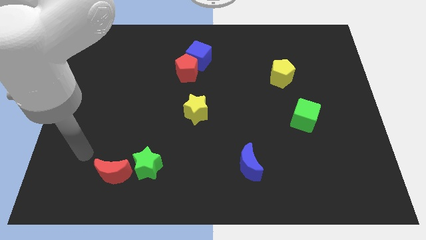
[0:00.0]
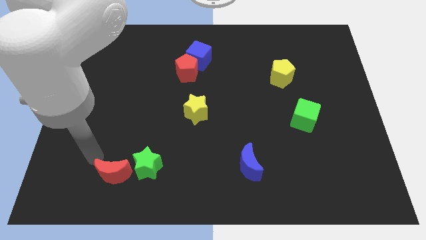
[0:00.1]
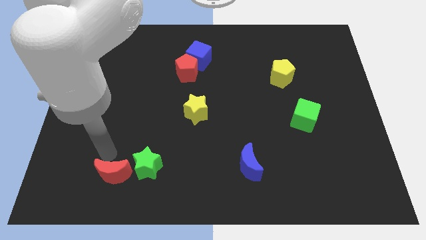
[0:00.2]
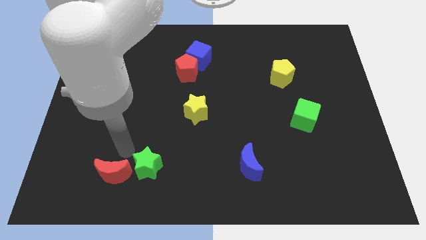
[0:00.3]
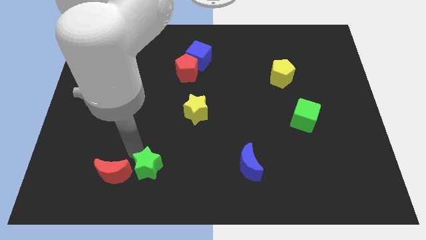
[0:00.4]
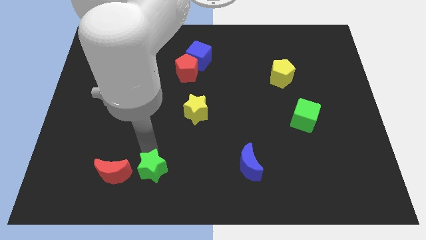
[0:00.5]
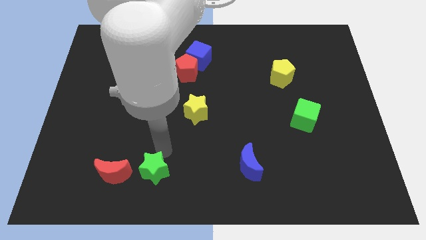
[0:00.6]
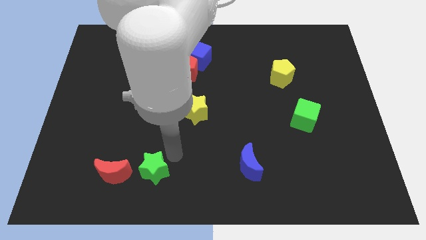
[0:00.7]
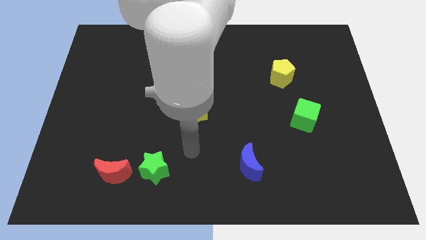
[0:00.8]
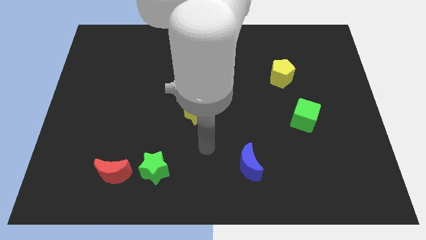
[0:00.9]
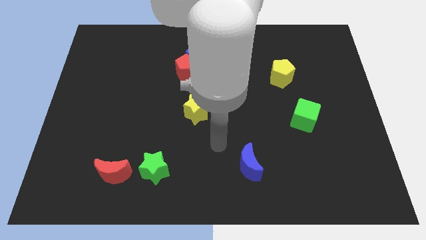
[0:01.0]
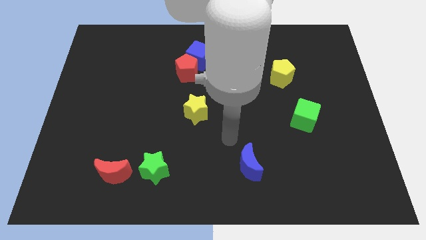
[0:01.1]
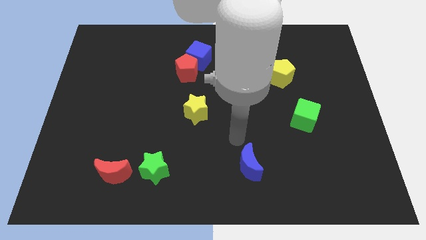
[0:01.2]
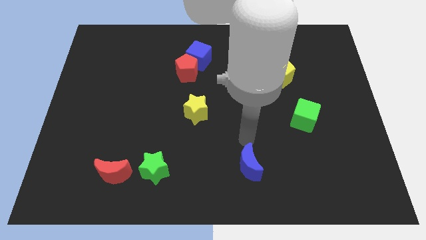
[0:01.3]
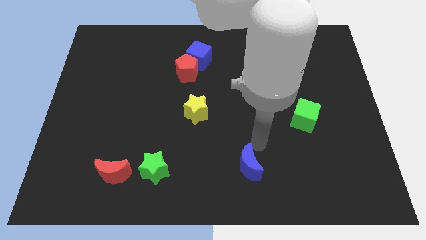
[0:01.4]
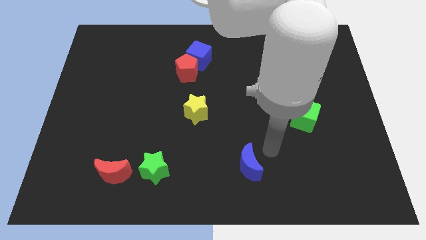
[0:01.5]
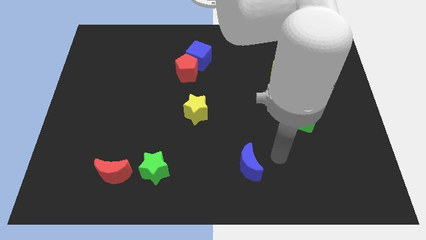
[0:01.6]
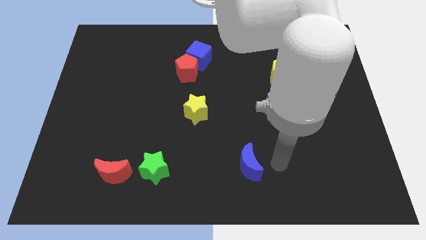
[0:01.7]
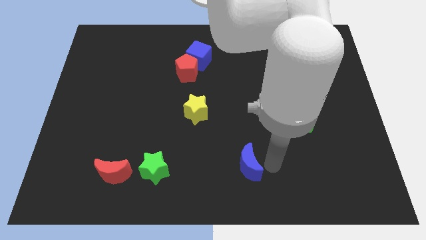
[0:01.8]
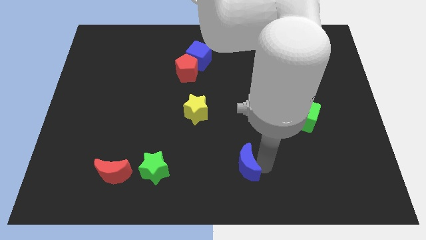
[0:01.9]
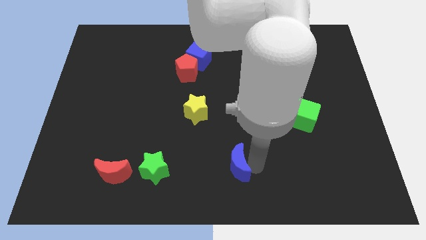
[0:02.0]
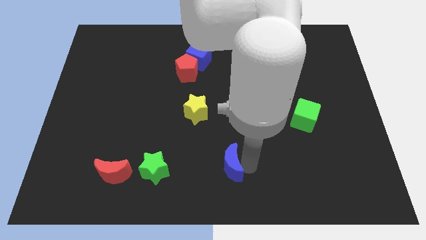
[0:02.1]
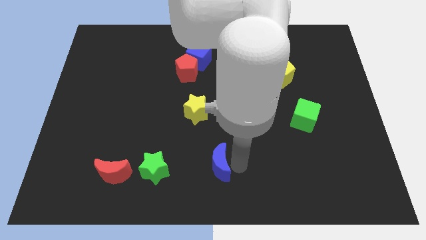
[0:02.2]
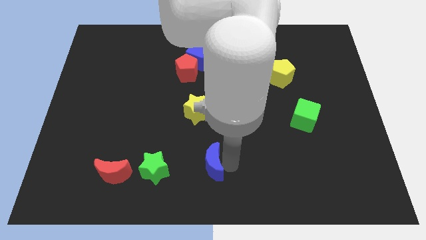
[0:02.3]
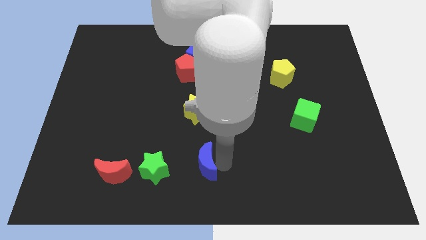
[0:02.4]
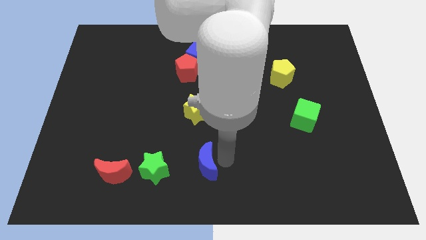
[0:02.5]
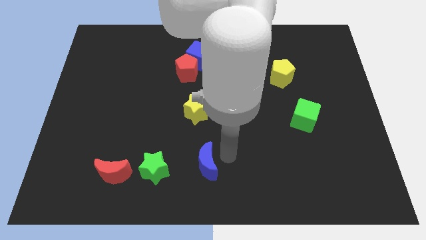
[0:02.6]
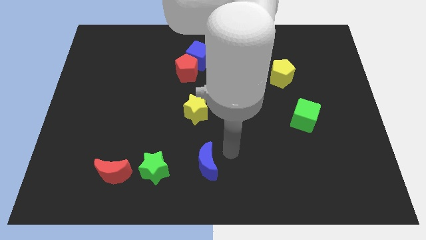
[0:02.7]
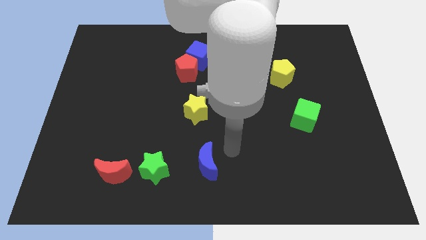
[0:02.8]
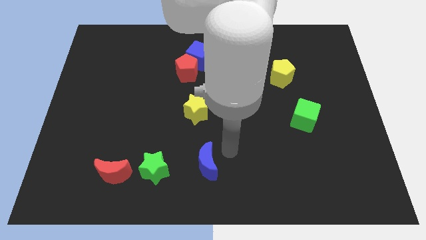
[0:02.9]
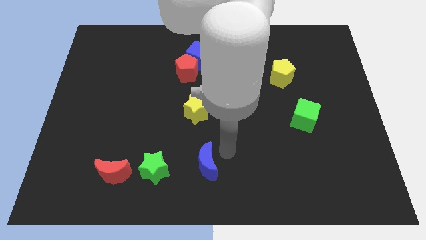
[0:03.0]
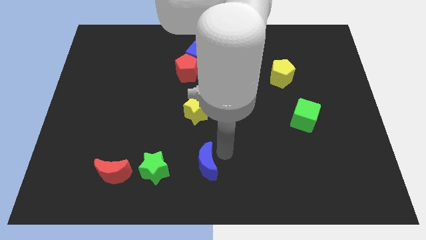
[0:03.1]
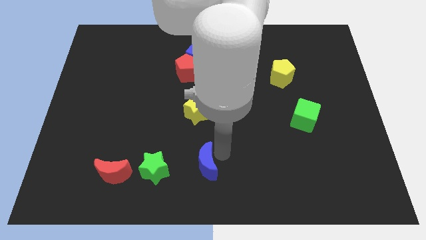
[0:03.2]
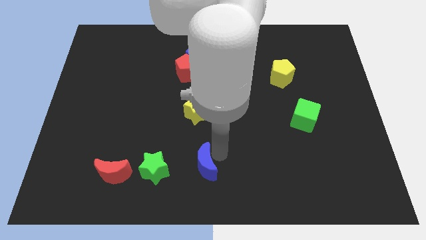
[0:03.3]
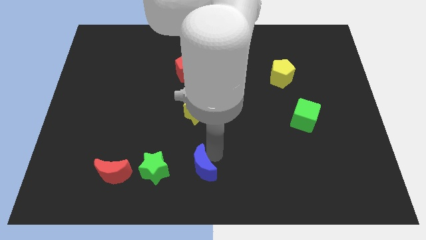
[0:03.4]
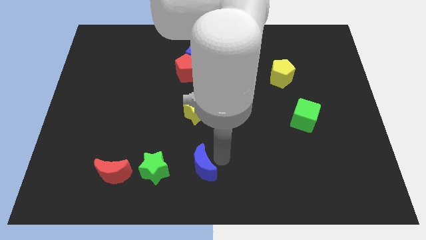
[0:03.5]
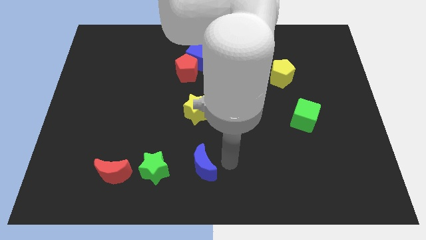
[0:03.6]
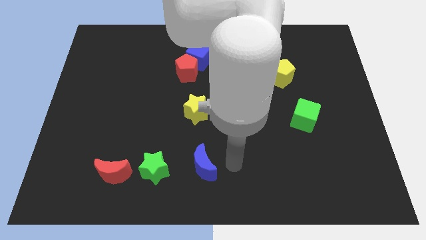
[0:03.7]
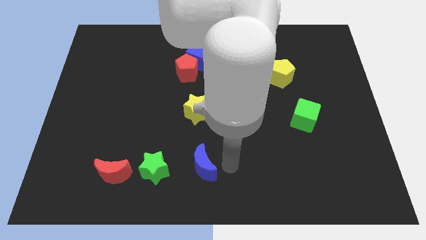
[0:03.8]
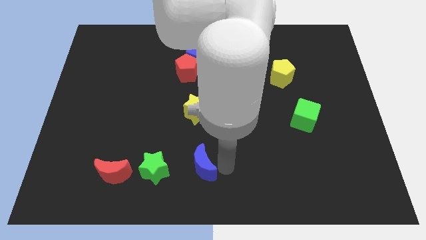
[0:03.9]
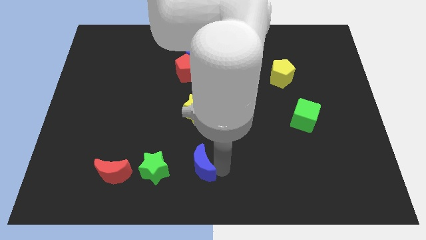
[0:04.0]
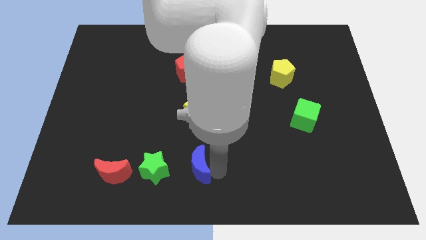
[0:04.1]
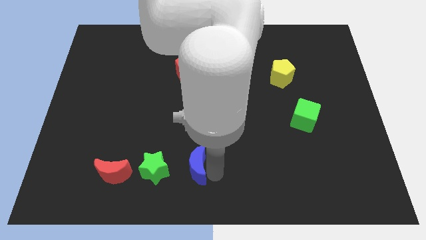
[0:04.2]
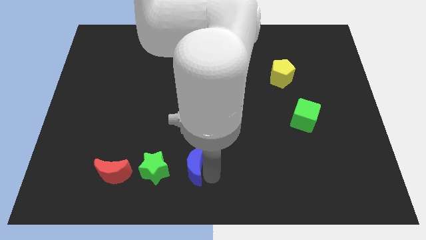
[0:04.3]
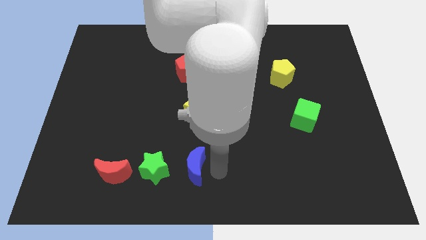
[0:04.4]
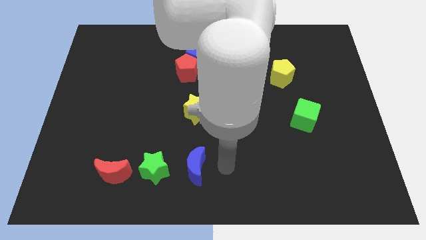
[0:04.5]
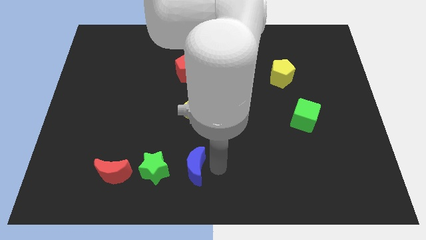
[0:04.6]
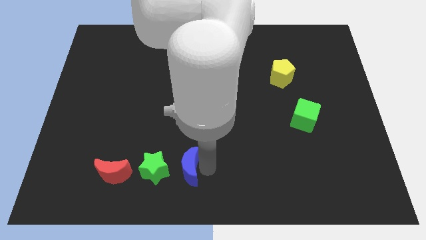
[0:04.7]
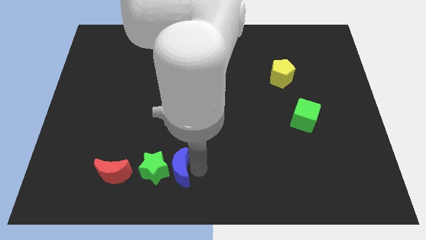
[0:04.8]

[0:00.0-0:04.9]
put the blue moon close to the green star

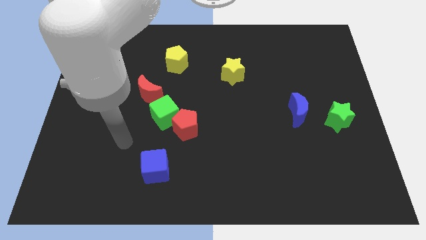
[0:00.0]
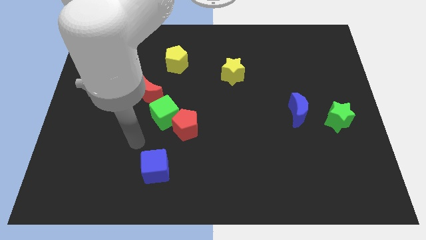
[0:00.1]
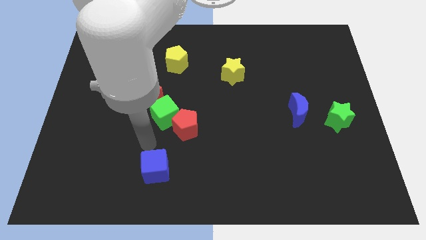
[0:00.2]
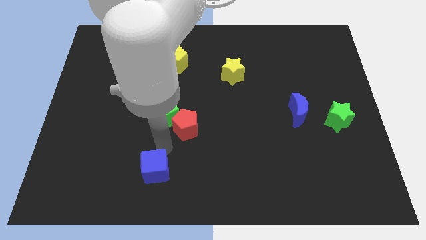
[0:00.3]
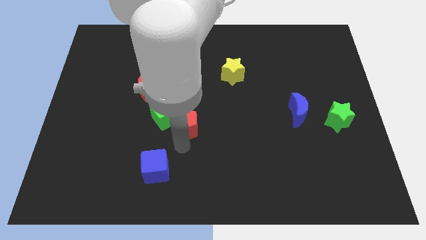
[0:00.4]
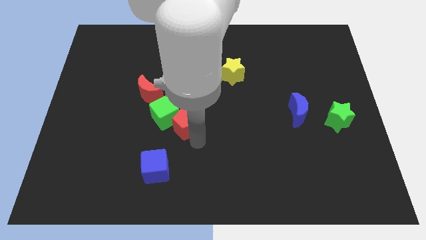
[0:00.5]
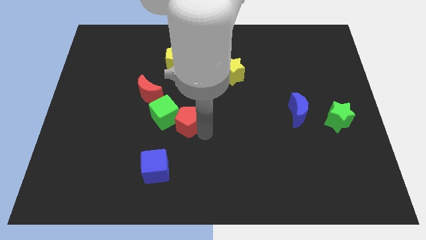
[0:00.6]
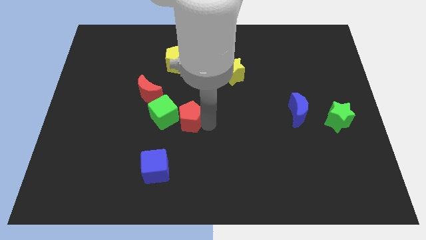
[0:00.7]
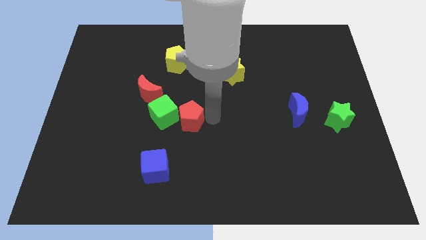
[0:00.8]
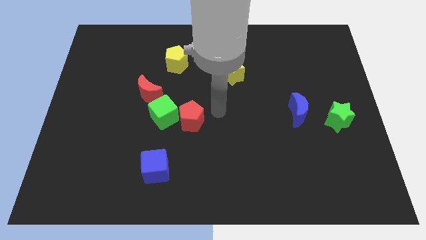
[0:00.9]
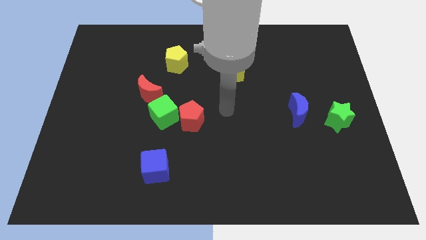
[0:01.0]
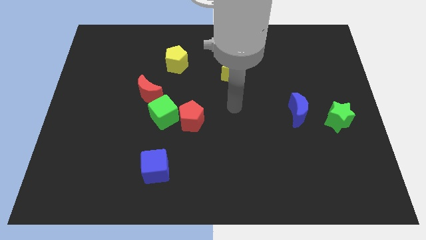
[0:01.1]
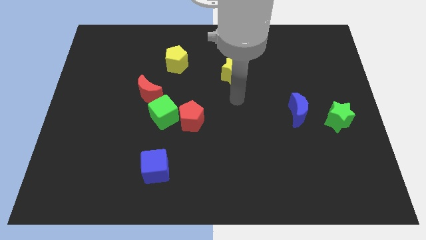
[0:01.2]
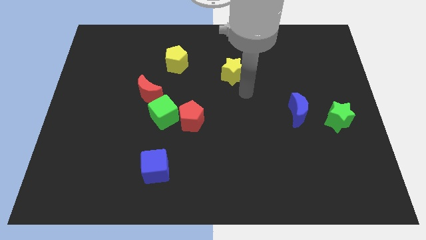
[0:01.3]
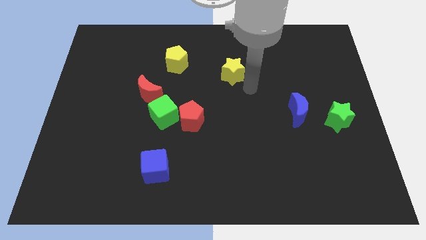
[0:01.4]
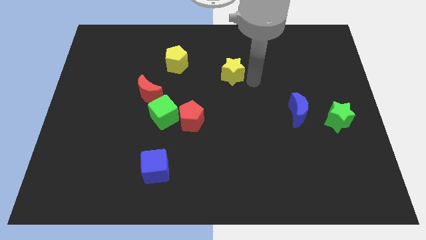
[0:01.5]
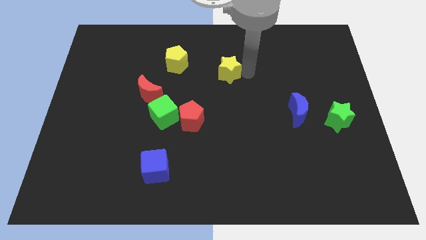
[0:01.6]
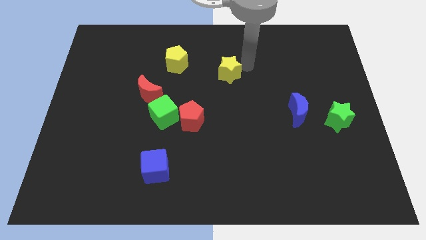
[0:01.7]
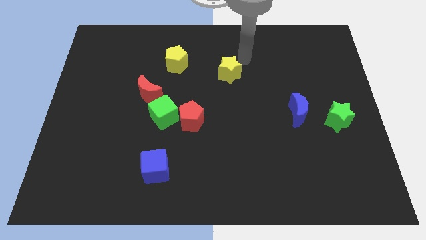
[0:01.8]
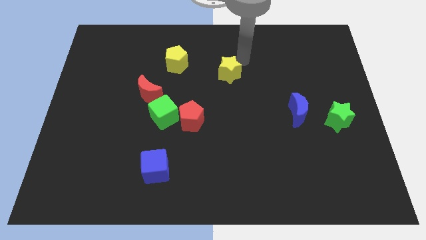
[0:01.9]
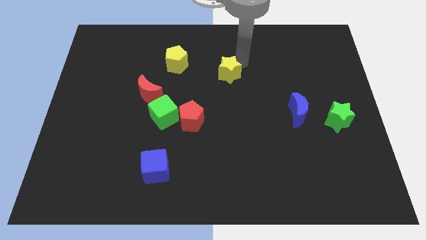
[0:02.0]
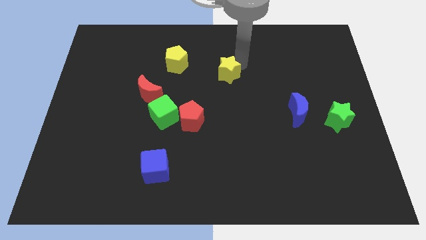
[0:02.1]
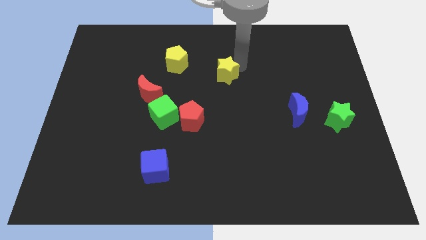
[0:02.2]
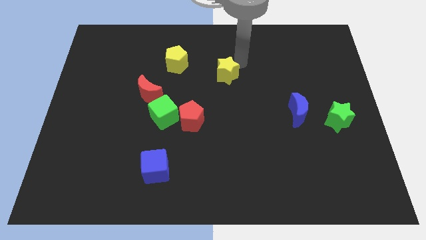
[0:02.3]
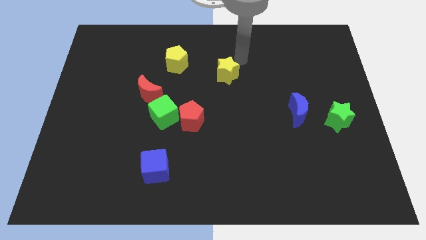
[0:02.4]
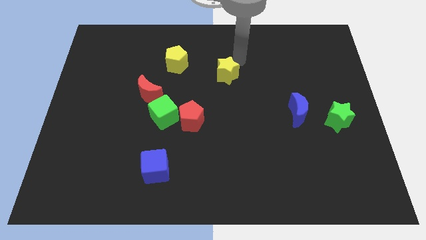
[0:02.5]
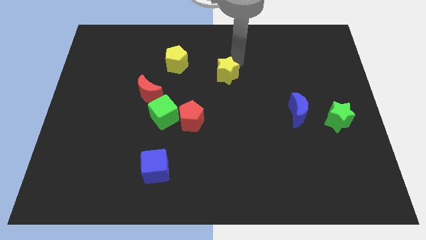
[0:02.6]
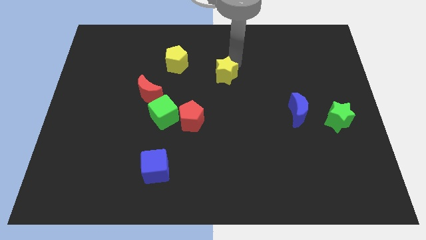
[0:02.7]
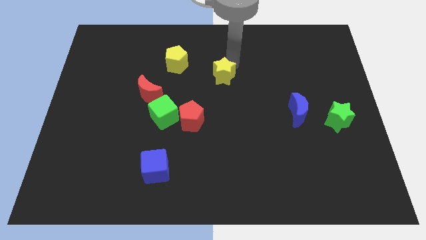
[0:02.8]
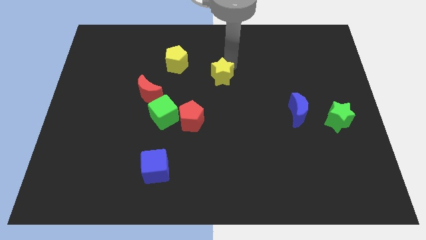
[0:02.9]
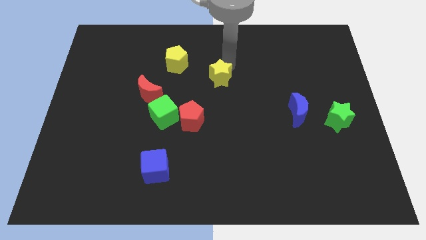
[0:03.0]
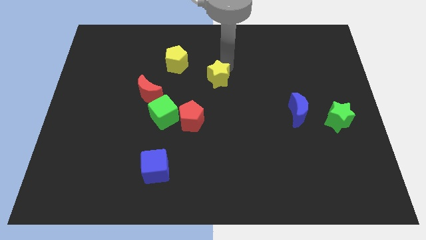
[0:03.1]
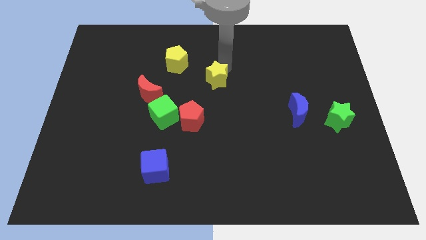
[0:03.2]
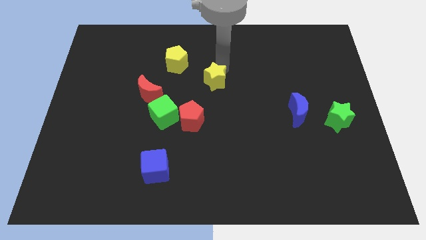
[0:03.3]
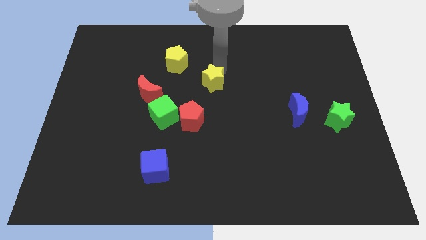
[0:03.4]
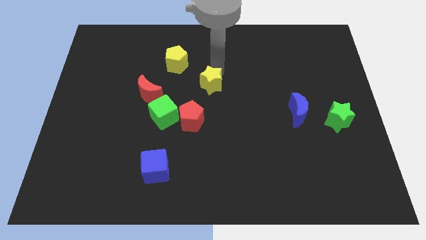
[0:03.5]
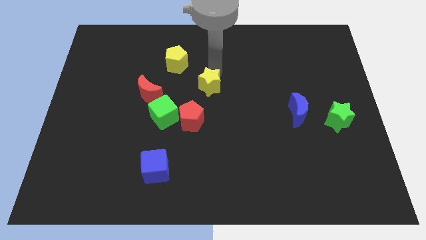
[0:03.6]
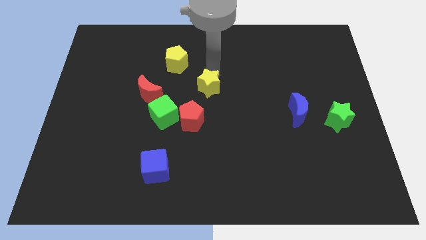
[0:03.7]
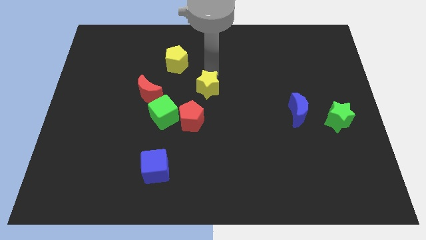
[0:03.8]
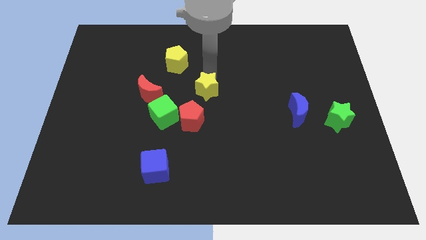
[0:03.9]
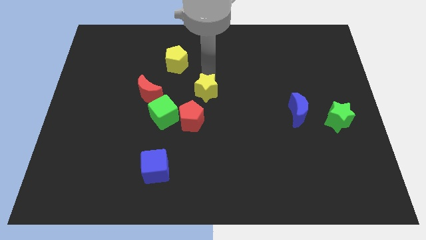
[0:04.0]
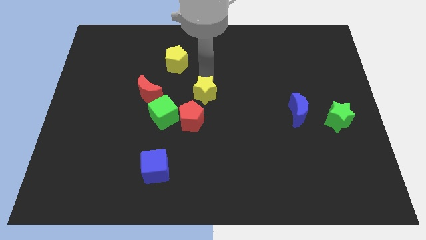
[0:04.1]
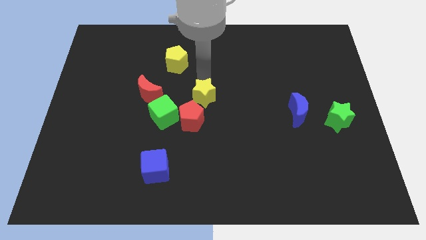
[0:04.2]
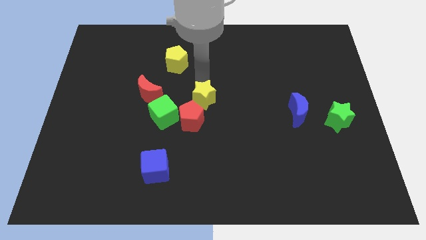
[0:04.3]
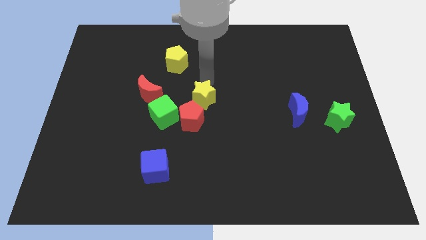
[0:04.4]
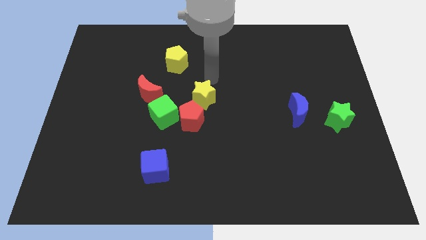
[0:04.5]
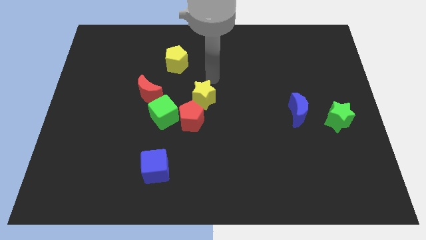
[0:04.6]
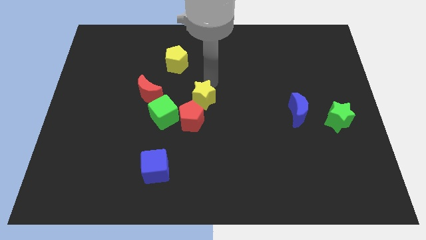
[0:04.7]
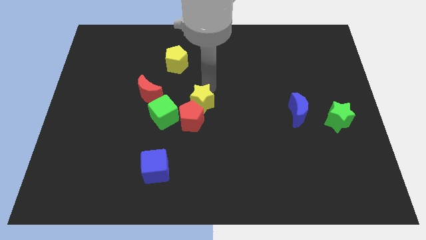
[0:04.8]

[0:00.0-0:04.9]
push the yellow star towards the red pentagon
